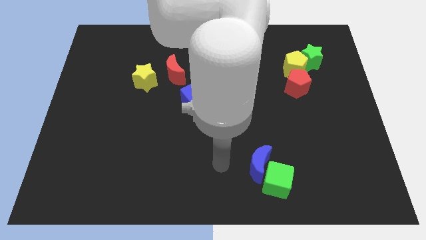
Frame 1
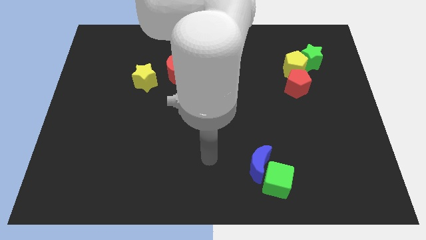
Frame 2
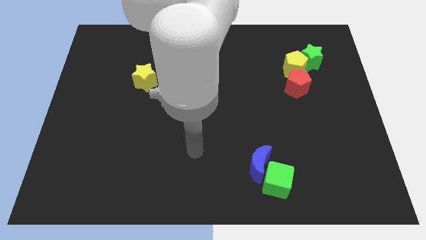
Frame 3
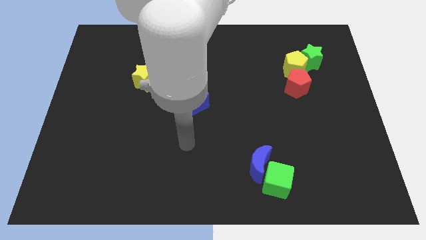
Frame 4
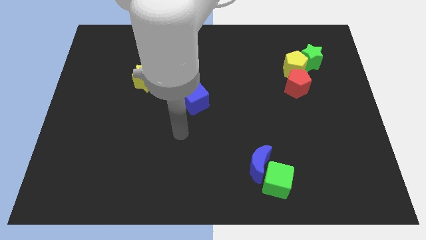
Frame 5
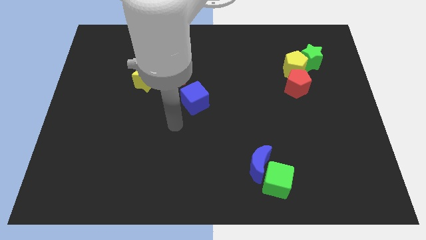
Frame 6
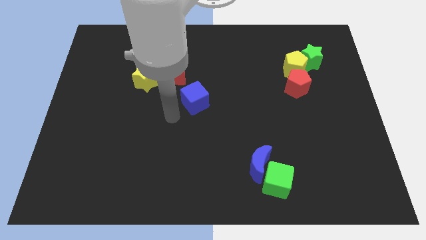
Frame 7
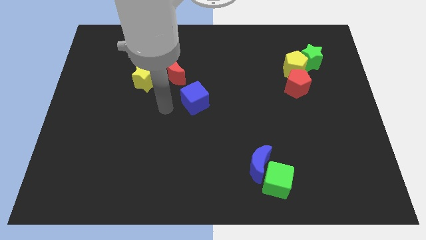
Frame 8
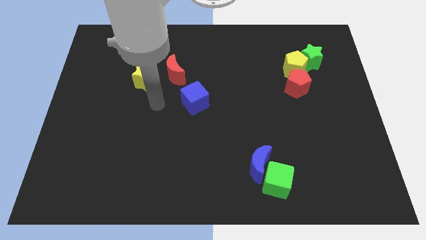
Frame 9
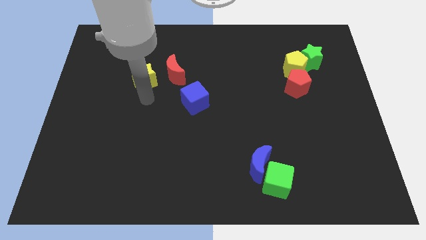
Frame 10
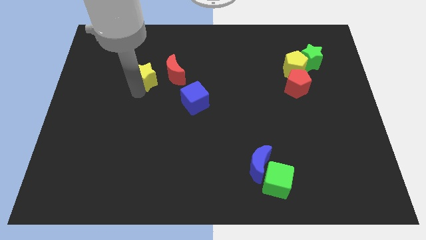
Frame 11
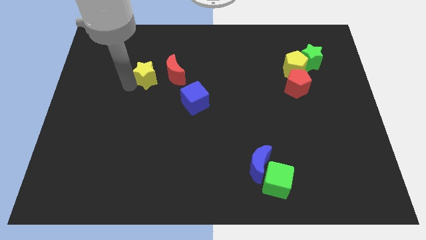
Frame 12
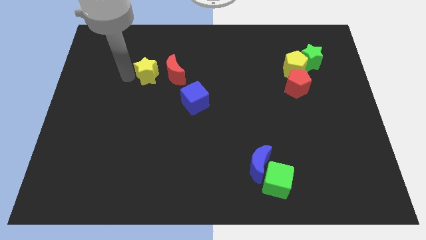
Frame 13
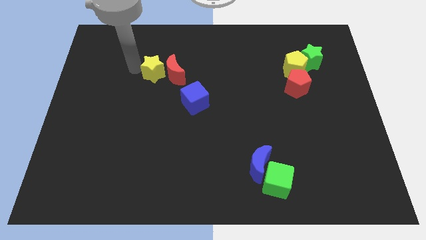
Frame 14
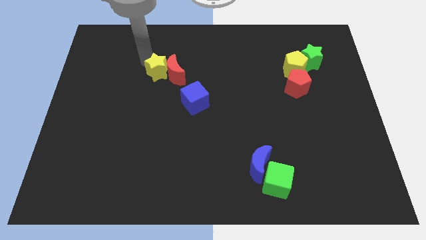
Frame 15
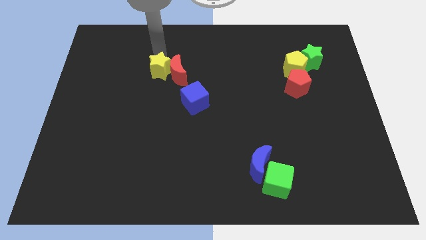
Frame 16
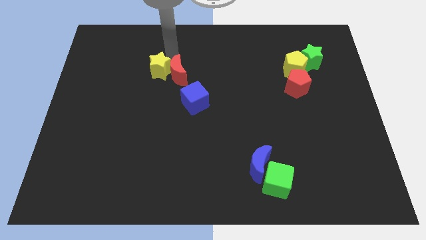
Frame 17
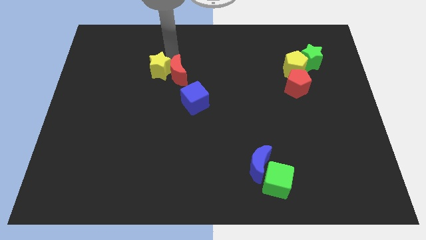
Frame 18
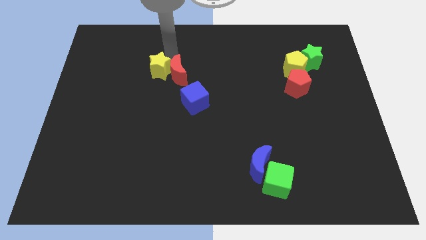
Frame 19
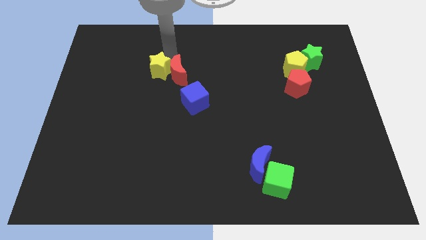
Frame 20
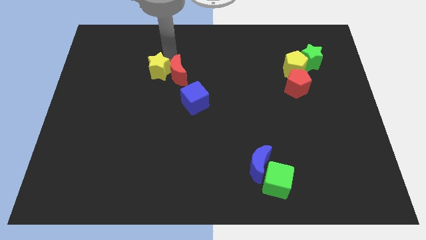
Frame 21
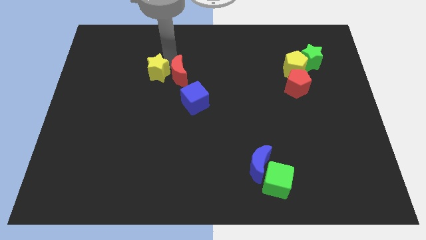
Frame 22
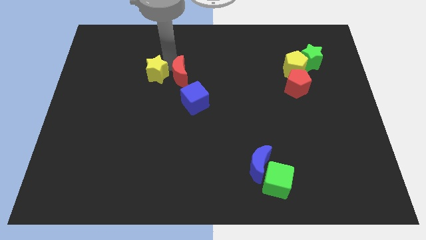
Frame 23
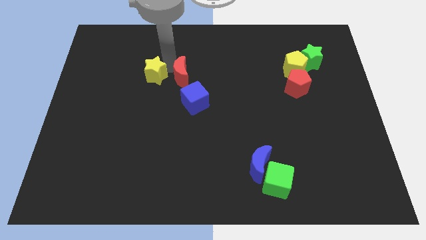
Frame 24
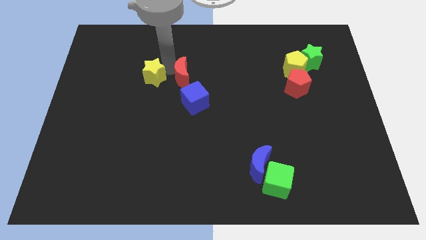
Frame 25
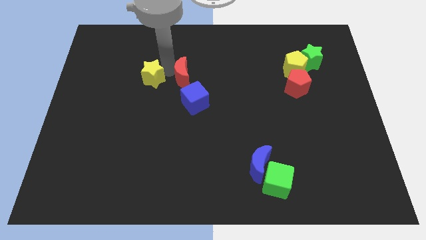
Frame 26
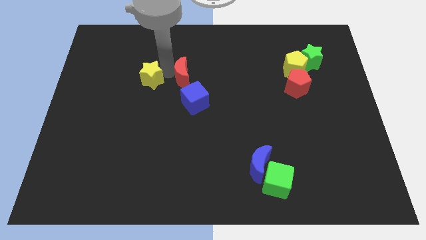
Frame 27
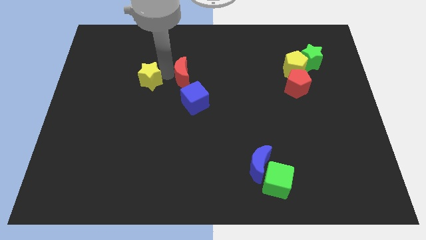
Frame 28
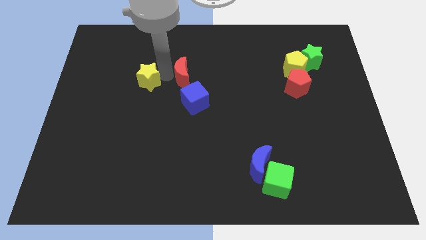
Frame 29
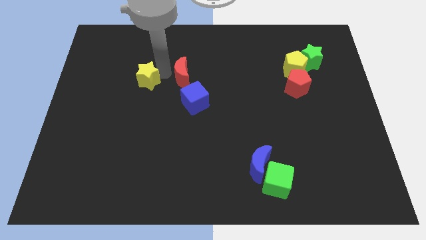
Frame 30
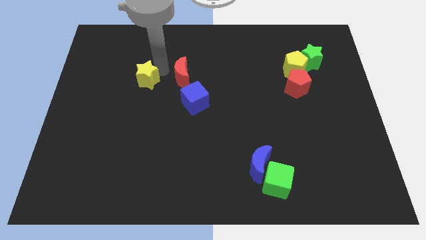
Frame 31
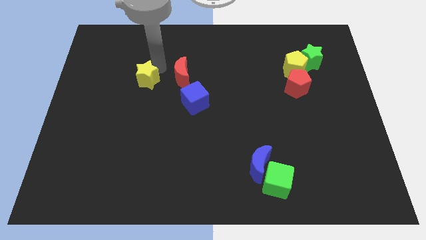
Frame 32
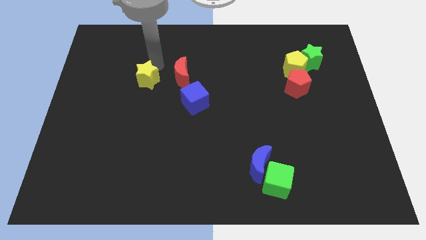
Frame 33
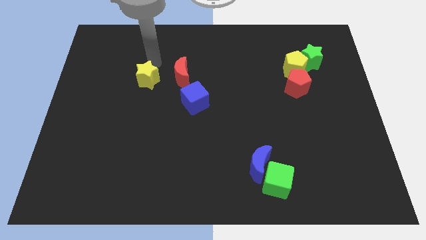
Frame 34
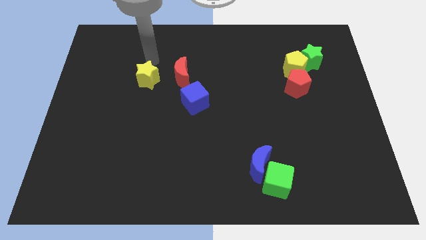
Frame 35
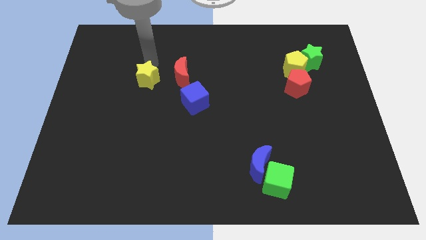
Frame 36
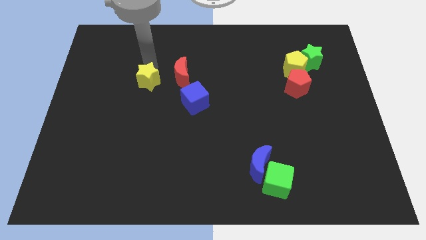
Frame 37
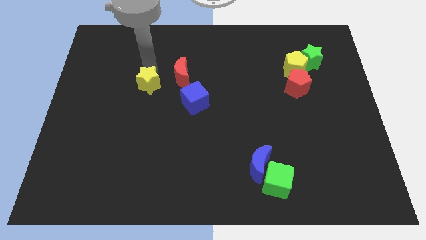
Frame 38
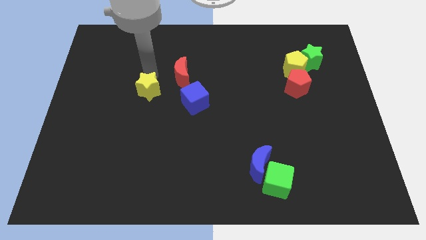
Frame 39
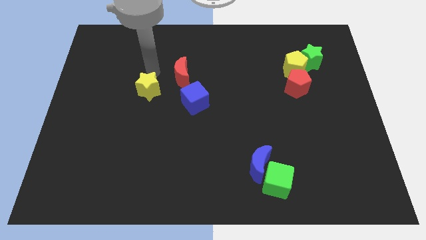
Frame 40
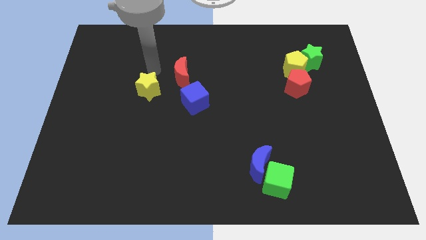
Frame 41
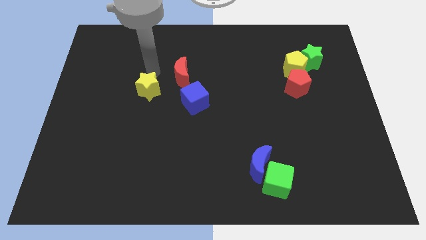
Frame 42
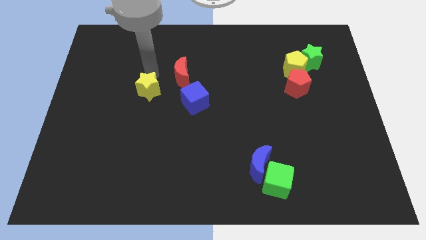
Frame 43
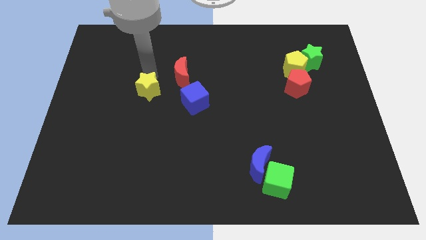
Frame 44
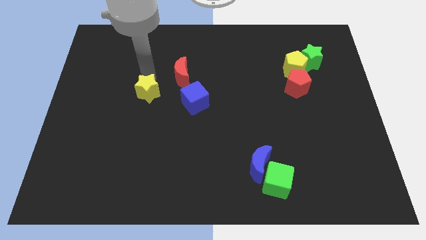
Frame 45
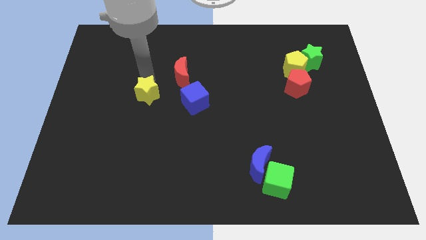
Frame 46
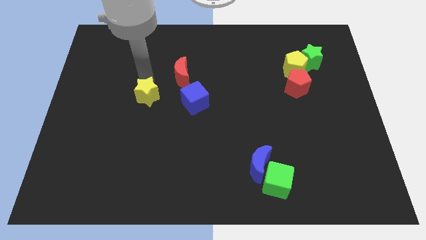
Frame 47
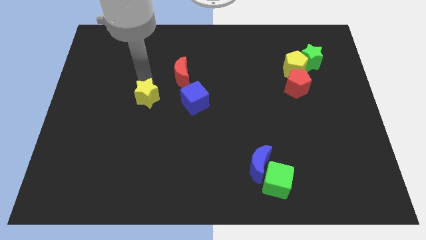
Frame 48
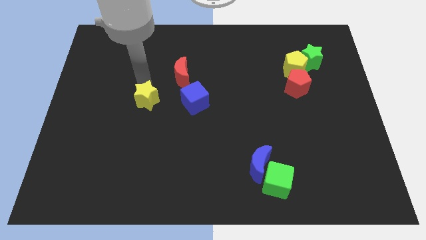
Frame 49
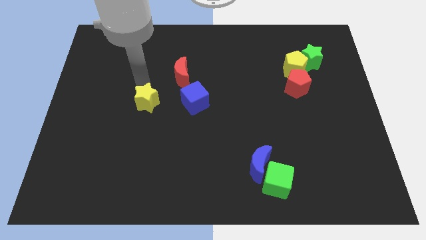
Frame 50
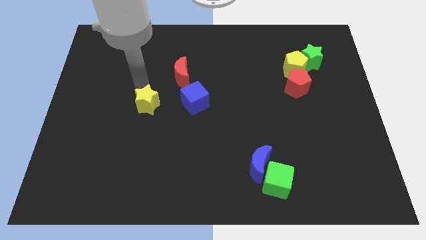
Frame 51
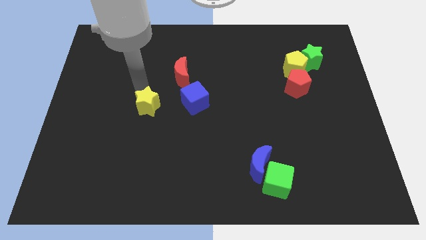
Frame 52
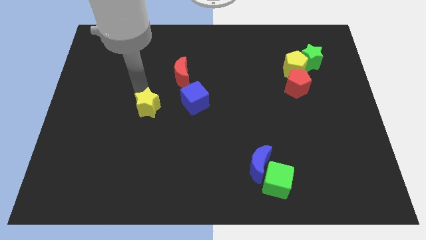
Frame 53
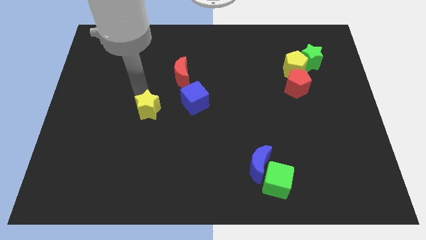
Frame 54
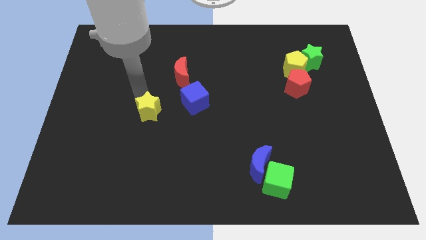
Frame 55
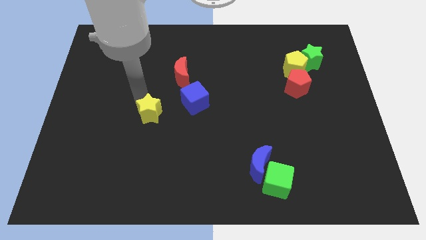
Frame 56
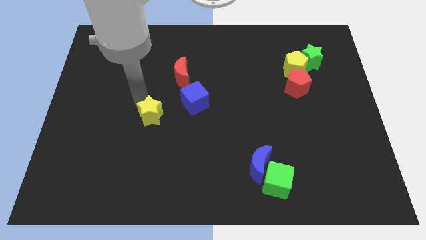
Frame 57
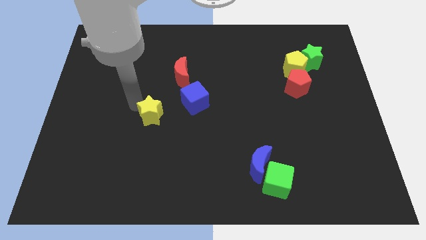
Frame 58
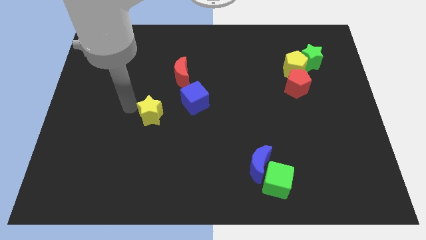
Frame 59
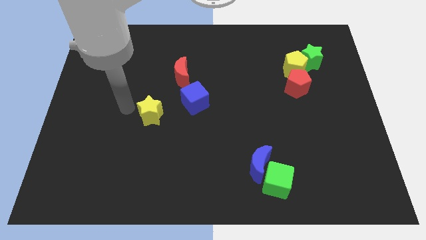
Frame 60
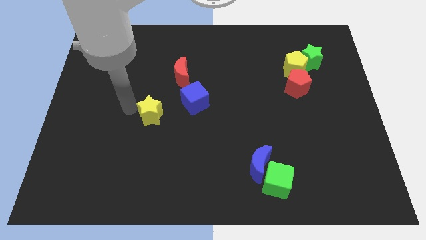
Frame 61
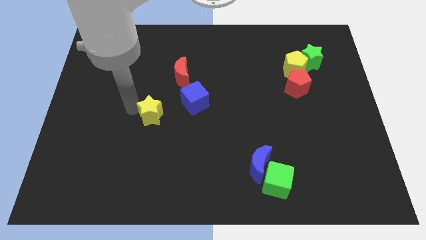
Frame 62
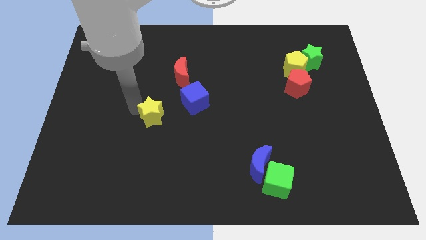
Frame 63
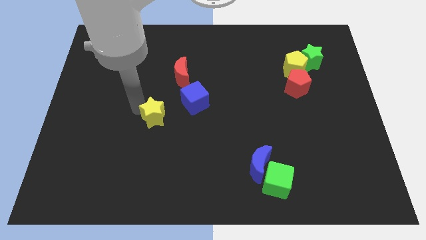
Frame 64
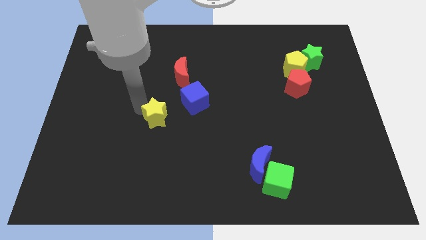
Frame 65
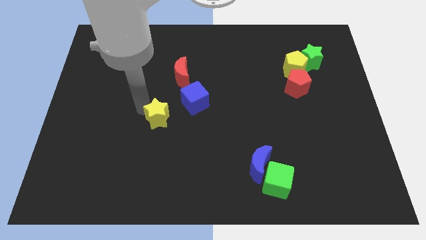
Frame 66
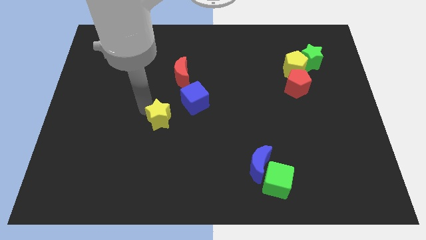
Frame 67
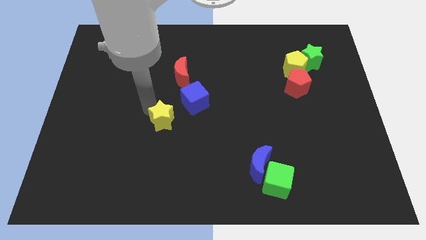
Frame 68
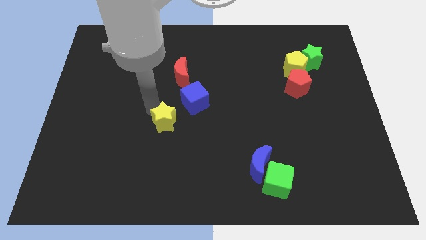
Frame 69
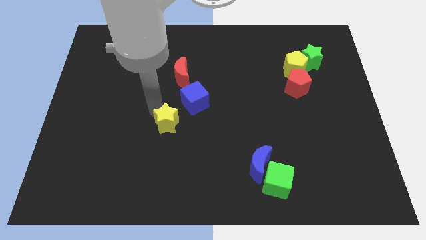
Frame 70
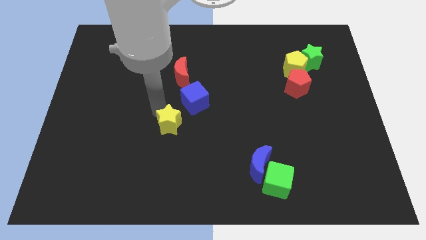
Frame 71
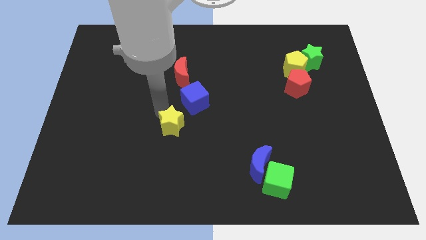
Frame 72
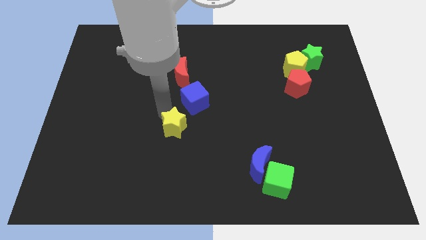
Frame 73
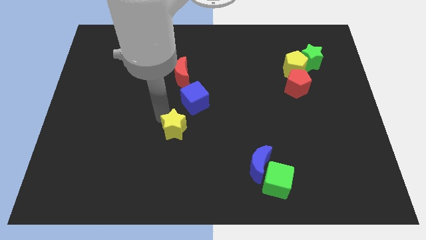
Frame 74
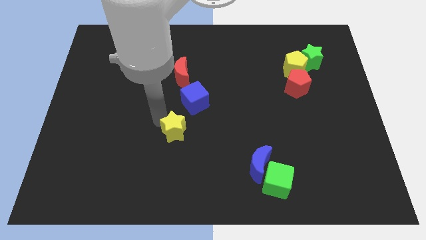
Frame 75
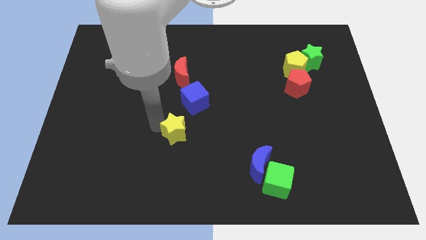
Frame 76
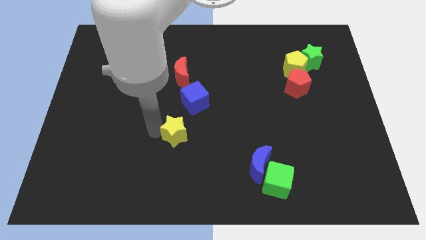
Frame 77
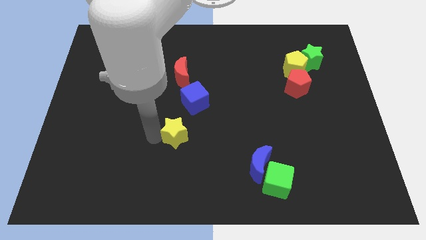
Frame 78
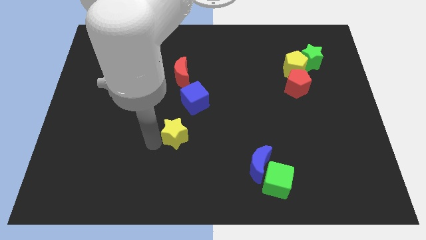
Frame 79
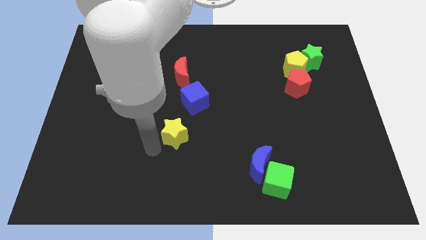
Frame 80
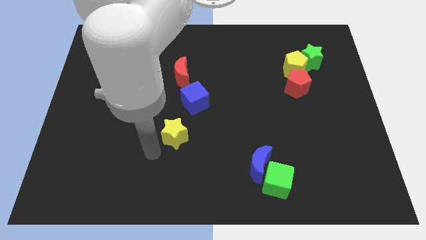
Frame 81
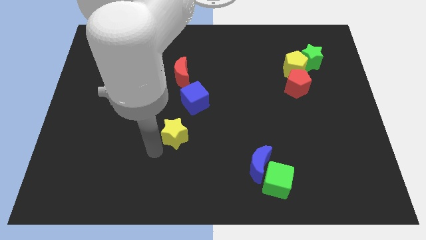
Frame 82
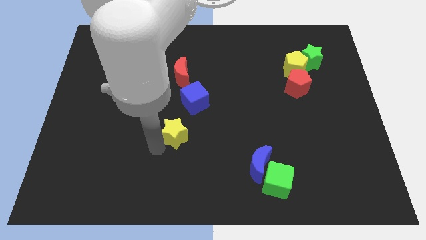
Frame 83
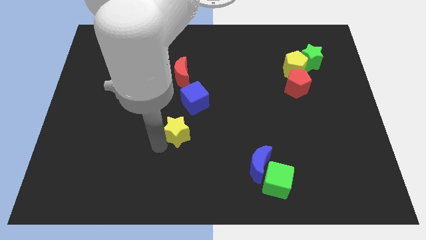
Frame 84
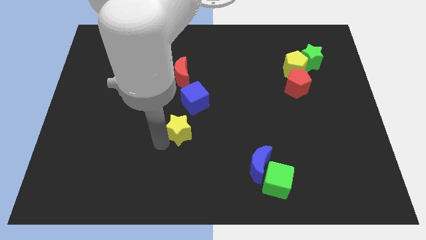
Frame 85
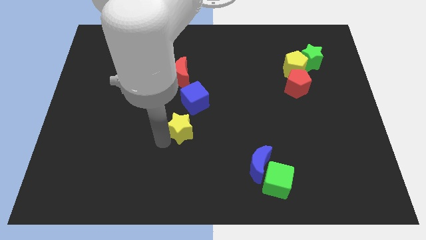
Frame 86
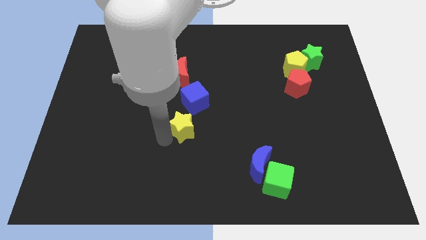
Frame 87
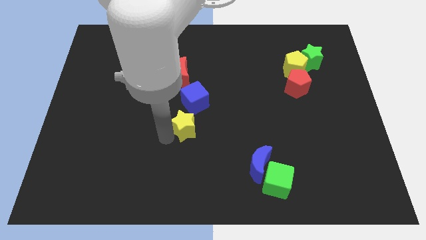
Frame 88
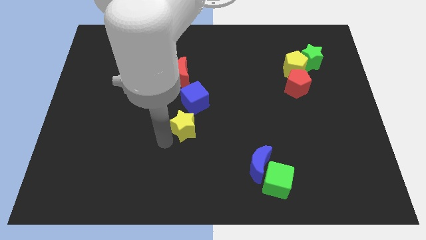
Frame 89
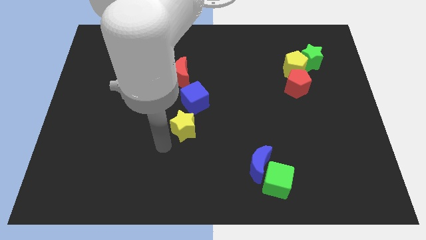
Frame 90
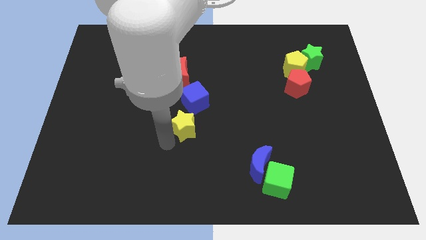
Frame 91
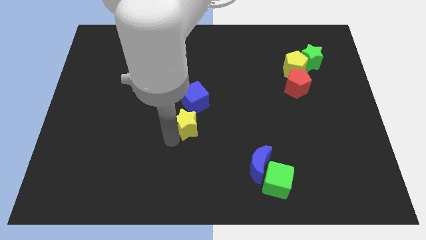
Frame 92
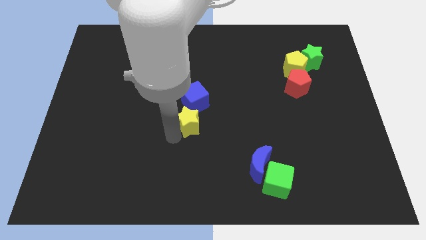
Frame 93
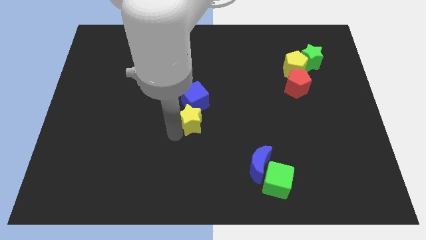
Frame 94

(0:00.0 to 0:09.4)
slide the yellow star to the bottom right of the blue cube
